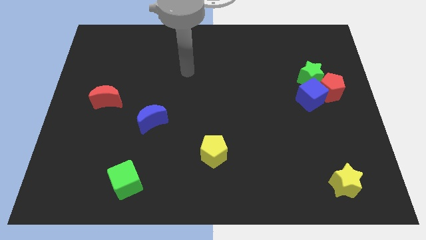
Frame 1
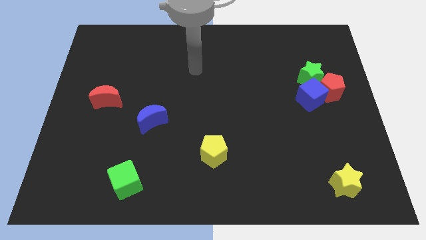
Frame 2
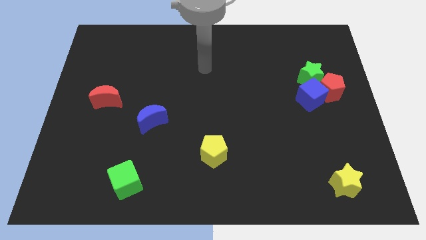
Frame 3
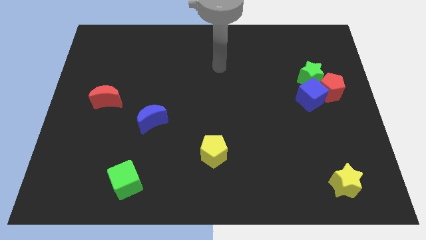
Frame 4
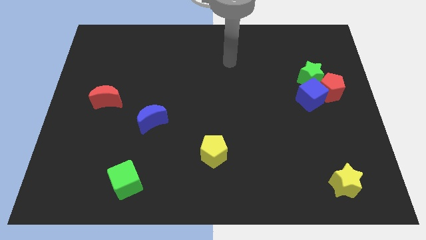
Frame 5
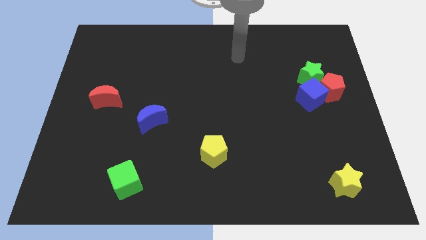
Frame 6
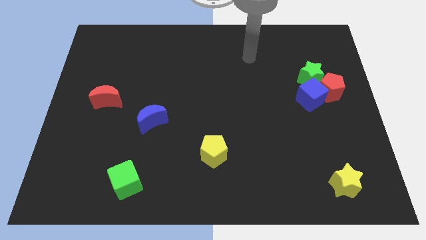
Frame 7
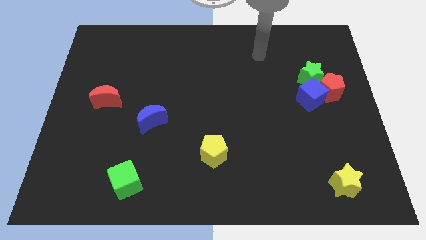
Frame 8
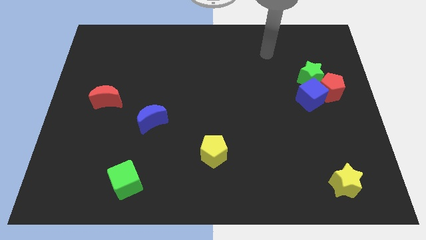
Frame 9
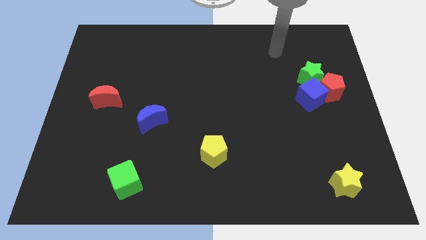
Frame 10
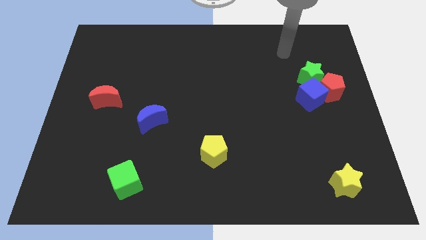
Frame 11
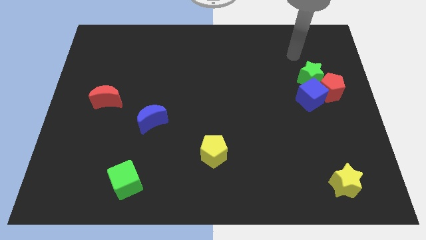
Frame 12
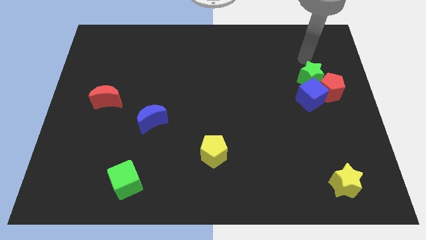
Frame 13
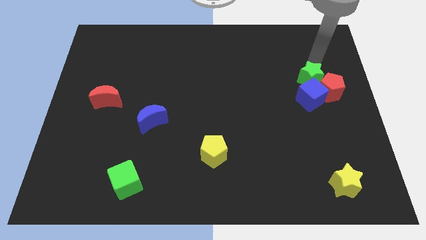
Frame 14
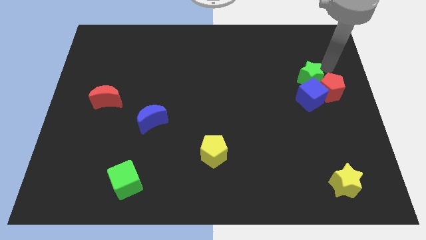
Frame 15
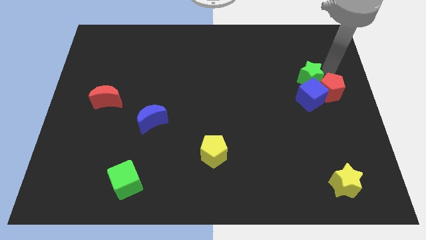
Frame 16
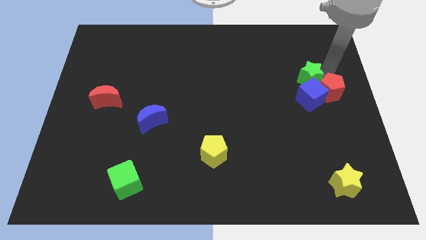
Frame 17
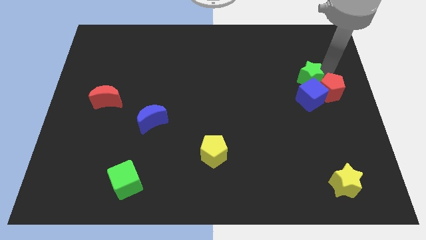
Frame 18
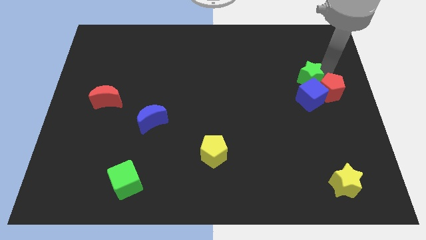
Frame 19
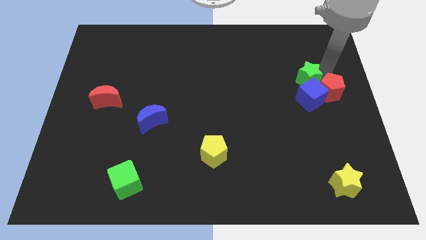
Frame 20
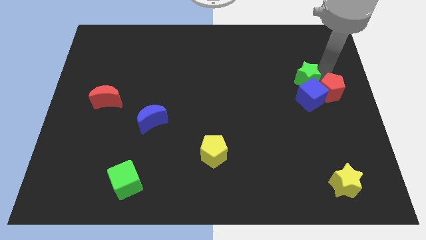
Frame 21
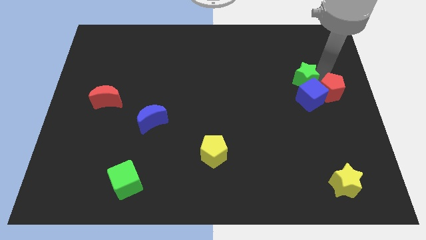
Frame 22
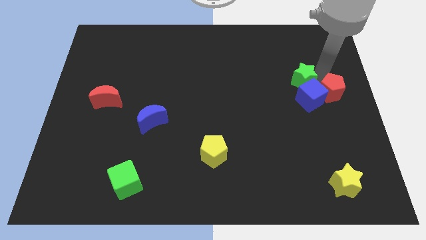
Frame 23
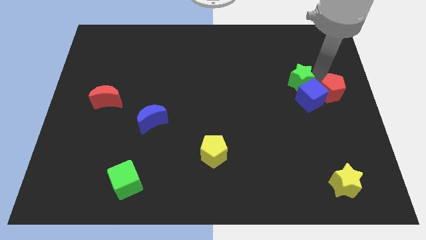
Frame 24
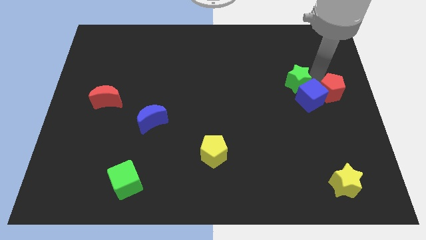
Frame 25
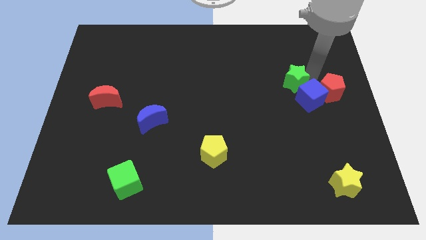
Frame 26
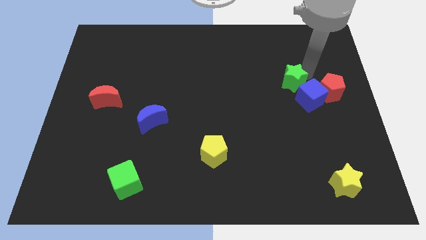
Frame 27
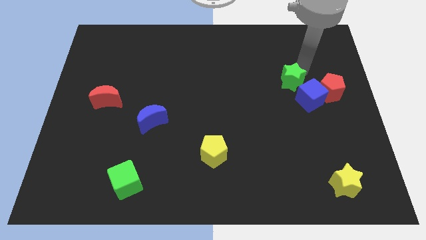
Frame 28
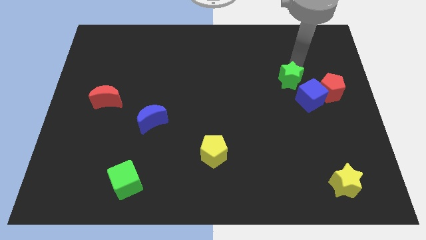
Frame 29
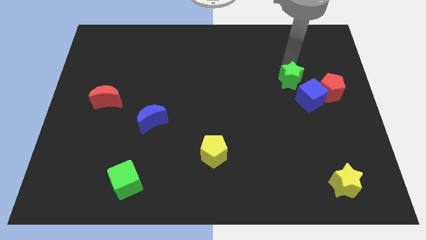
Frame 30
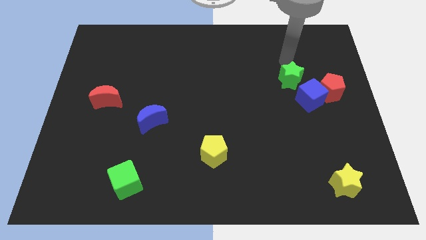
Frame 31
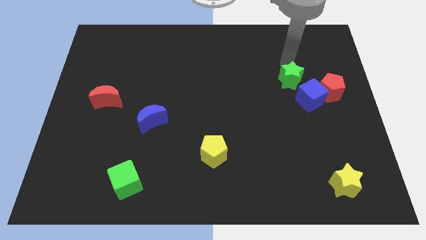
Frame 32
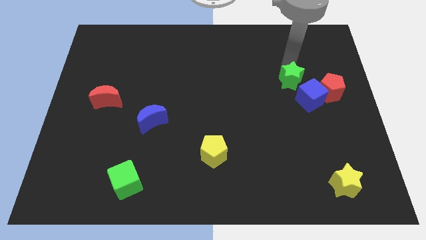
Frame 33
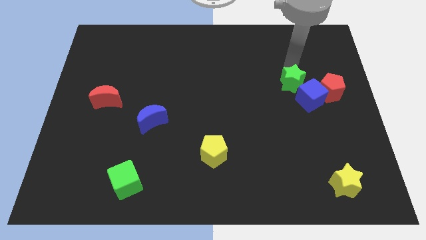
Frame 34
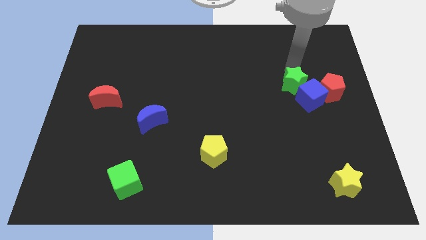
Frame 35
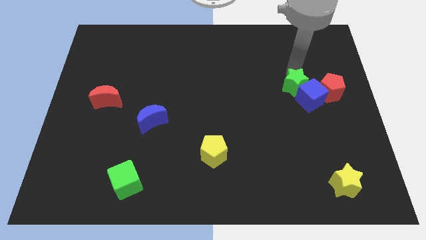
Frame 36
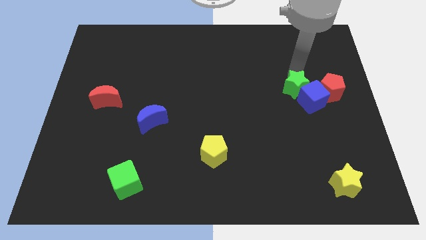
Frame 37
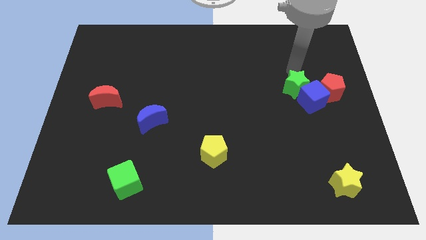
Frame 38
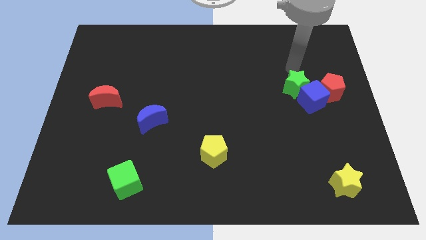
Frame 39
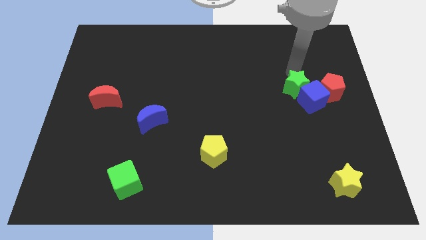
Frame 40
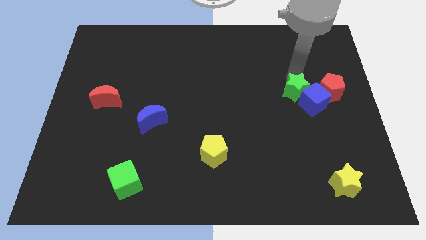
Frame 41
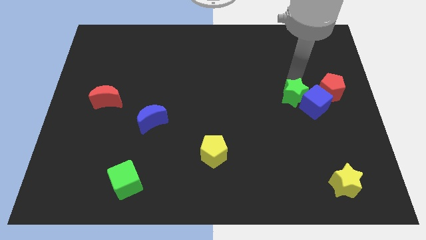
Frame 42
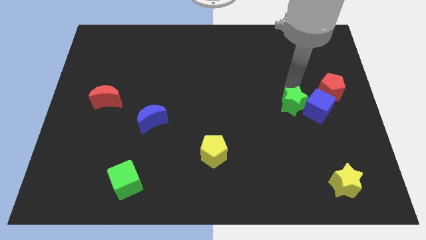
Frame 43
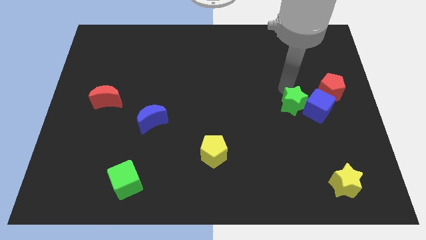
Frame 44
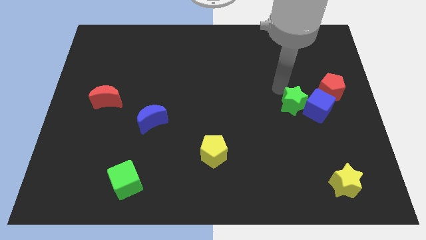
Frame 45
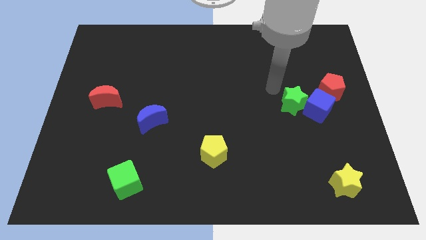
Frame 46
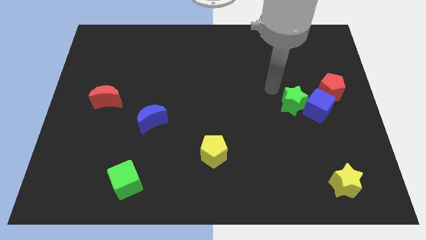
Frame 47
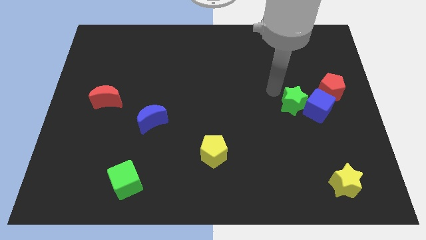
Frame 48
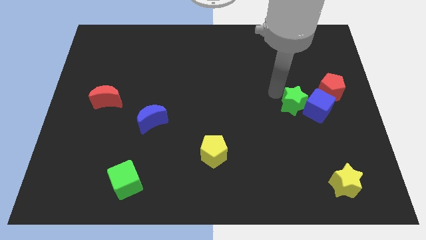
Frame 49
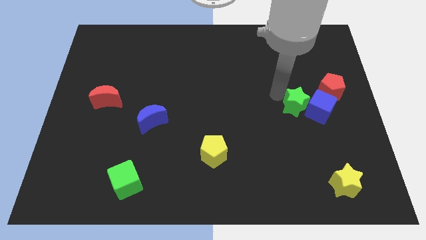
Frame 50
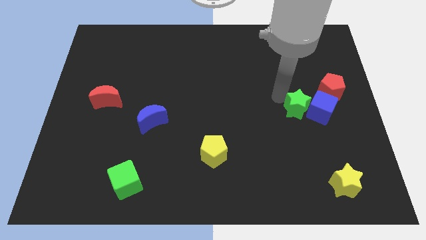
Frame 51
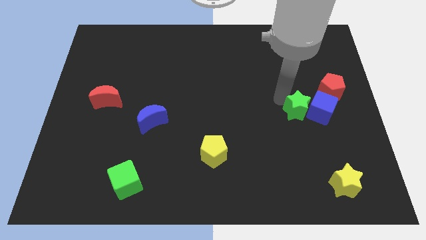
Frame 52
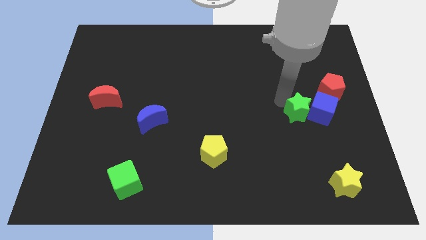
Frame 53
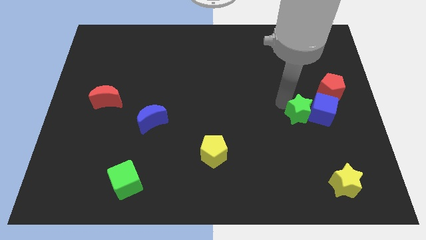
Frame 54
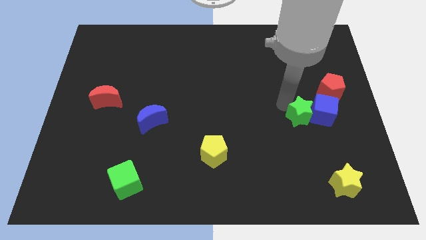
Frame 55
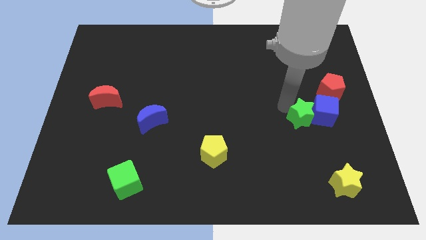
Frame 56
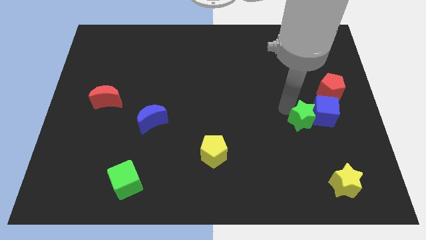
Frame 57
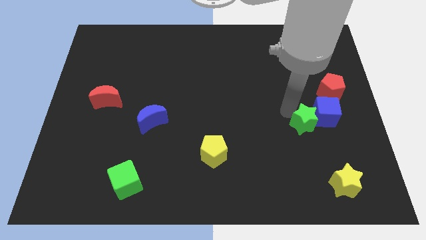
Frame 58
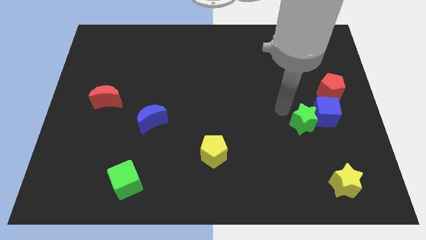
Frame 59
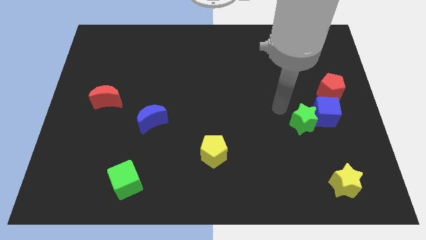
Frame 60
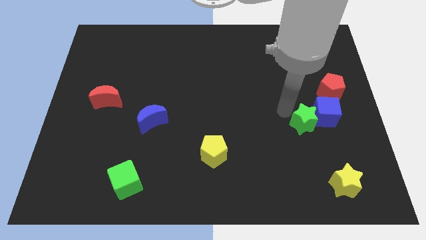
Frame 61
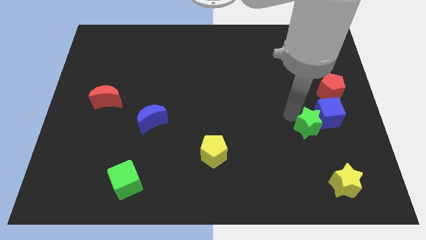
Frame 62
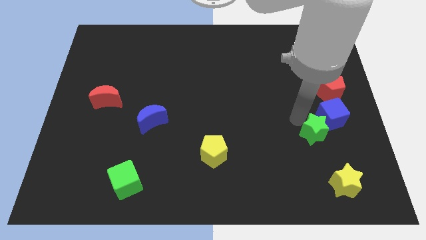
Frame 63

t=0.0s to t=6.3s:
slide the green star above the yellow star

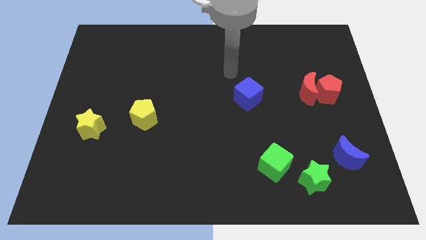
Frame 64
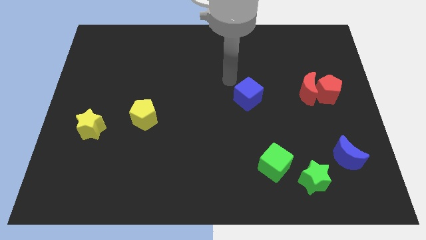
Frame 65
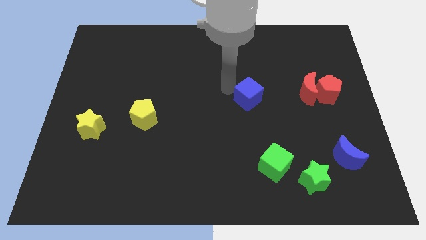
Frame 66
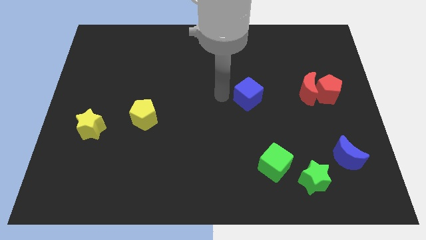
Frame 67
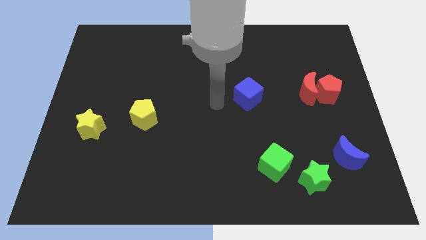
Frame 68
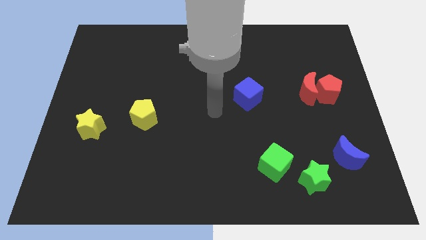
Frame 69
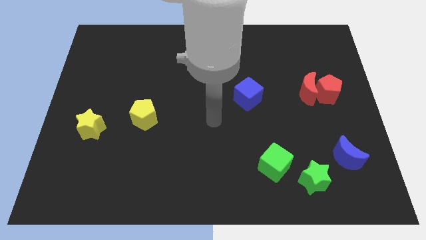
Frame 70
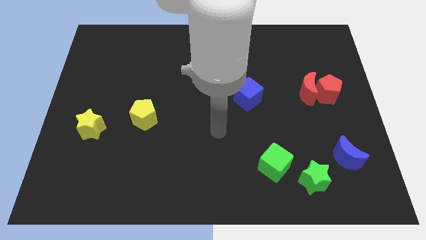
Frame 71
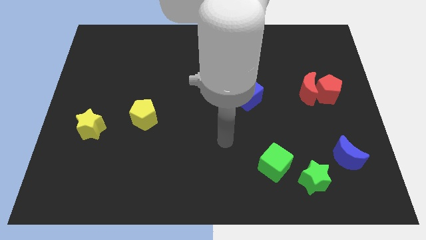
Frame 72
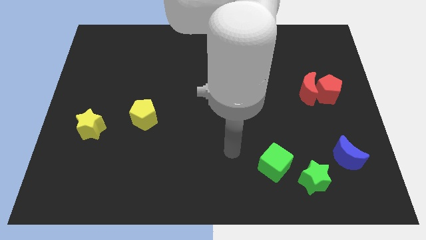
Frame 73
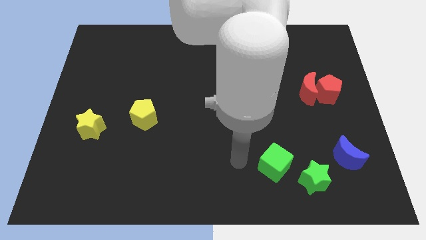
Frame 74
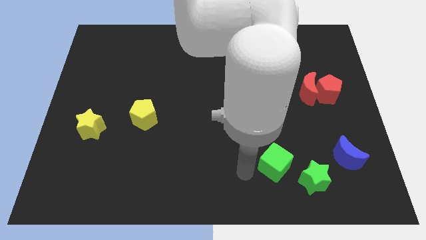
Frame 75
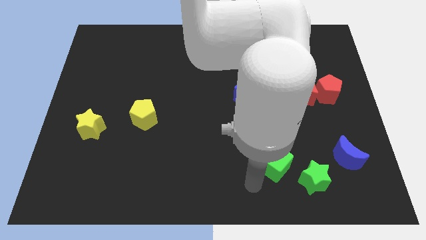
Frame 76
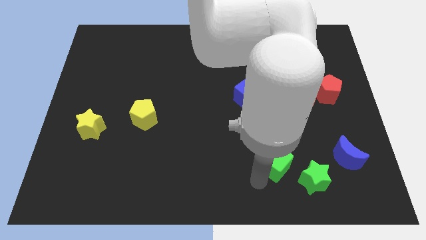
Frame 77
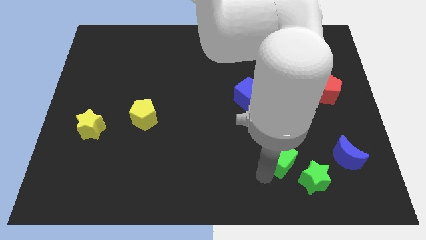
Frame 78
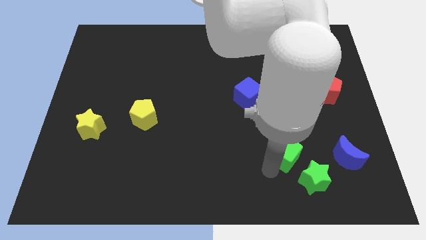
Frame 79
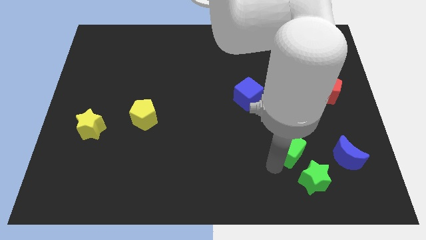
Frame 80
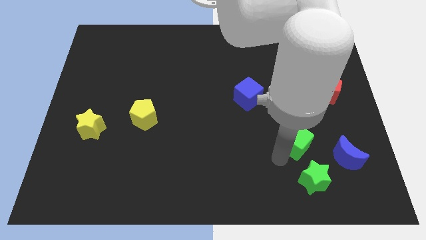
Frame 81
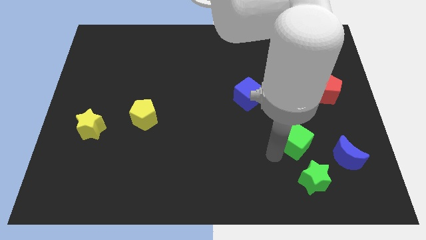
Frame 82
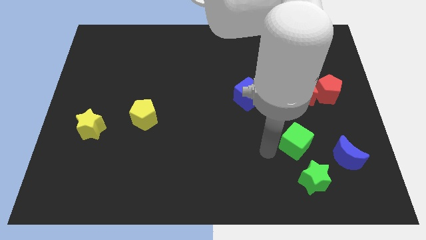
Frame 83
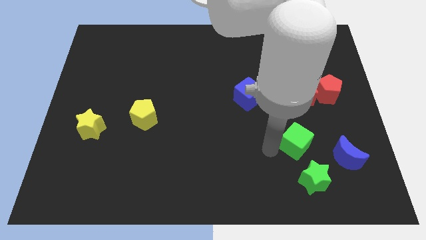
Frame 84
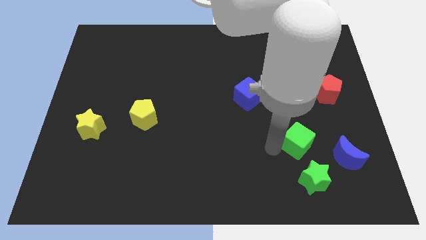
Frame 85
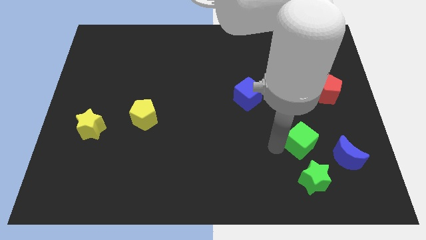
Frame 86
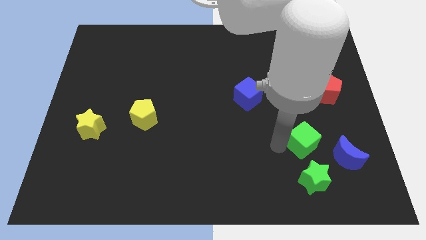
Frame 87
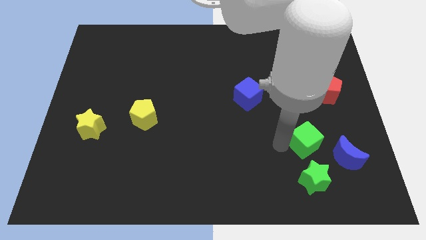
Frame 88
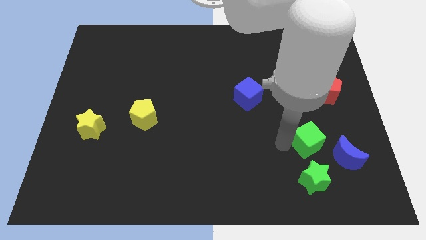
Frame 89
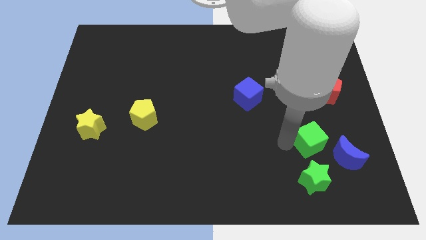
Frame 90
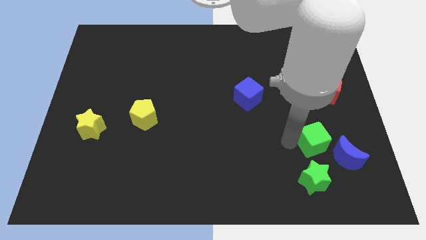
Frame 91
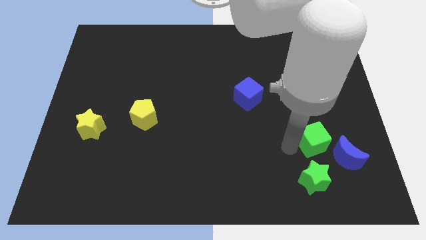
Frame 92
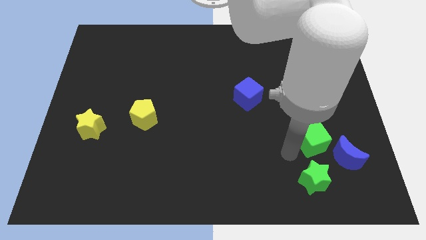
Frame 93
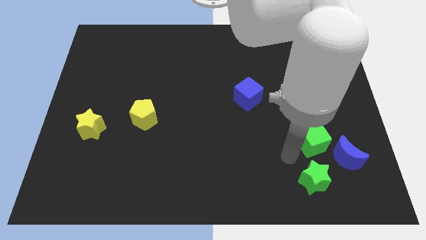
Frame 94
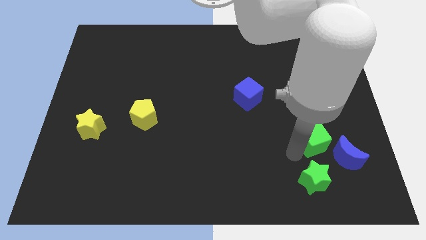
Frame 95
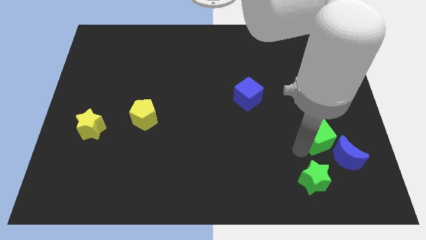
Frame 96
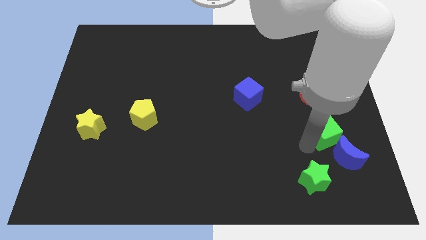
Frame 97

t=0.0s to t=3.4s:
push the green cube to the bottom side of the red pentagon
